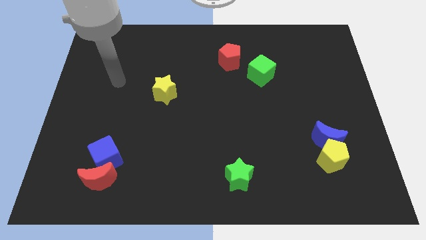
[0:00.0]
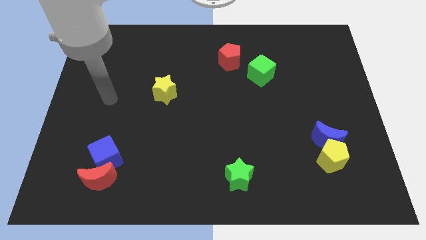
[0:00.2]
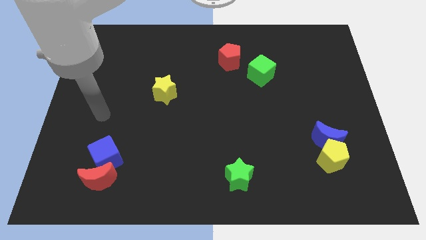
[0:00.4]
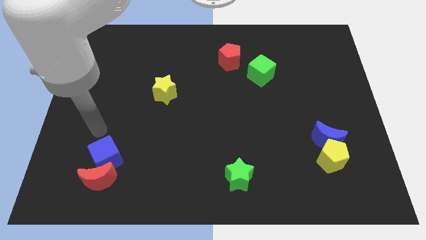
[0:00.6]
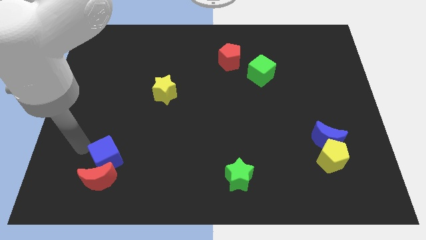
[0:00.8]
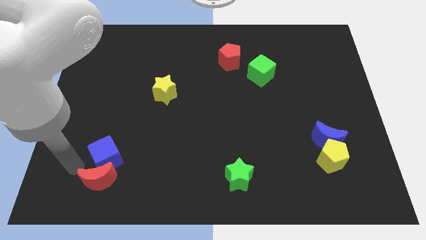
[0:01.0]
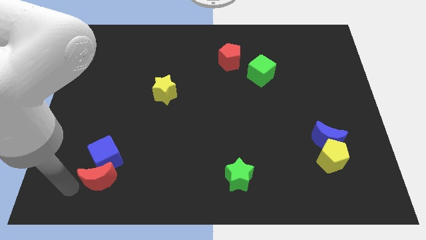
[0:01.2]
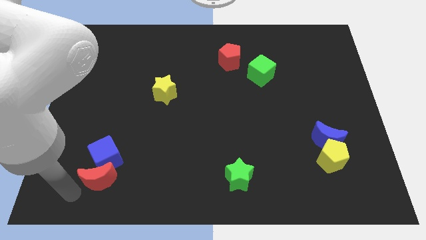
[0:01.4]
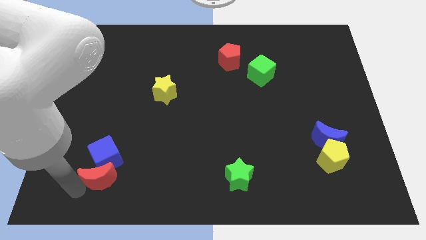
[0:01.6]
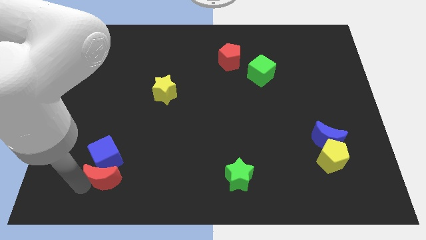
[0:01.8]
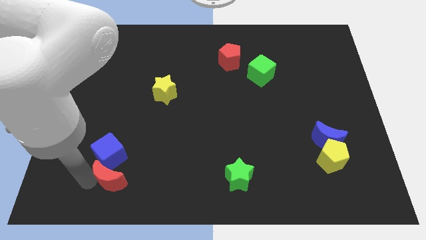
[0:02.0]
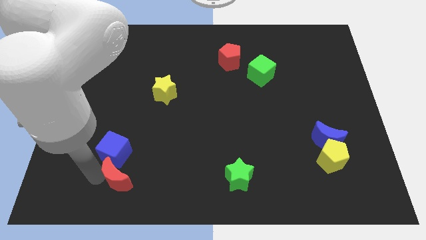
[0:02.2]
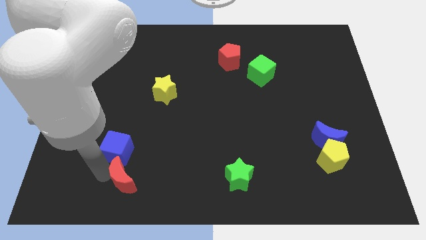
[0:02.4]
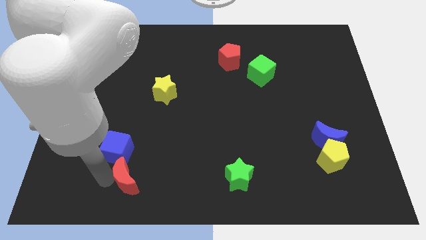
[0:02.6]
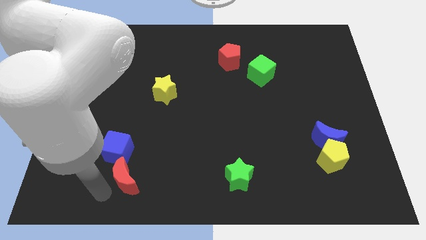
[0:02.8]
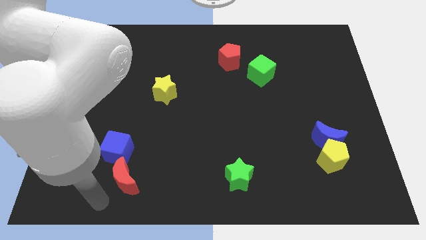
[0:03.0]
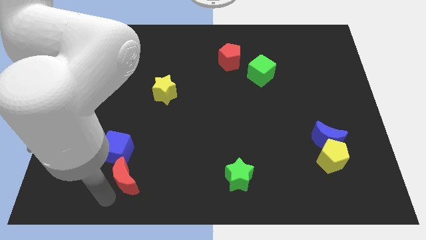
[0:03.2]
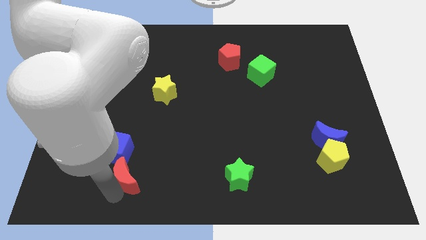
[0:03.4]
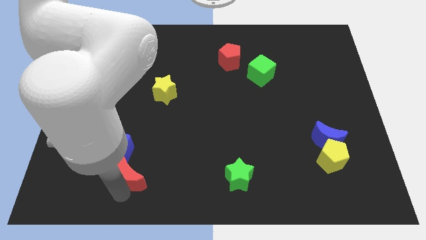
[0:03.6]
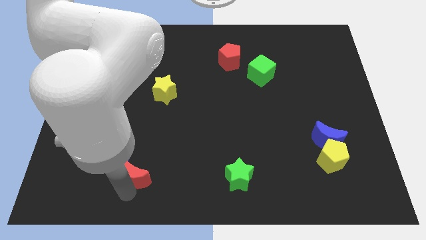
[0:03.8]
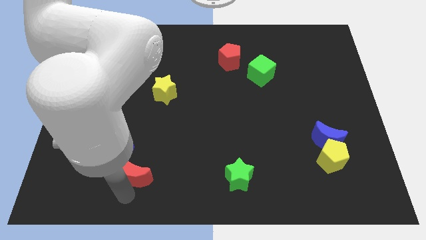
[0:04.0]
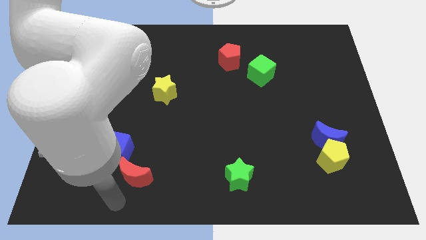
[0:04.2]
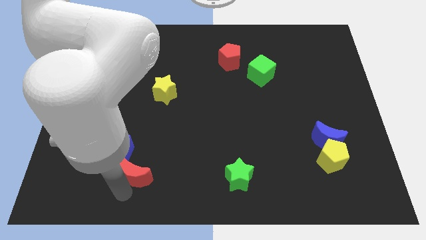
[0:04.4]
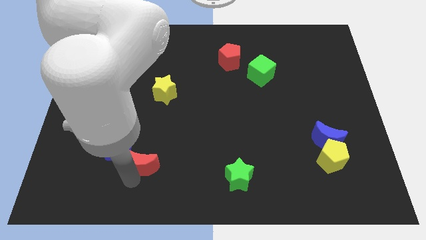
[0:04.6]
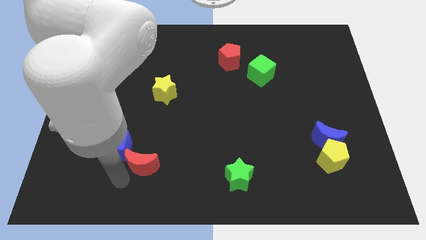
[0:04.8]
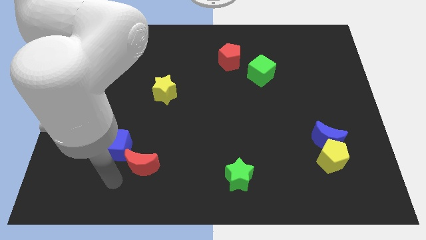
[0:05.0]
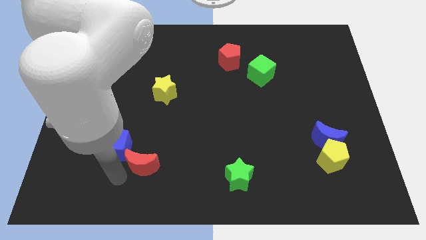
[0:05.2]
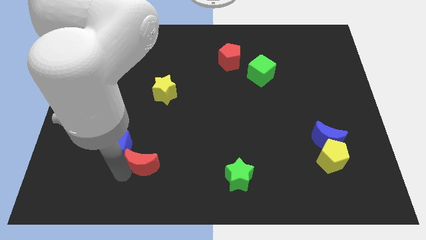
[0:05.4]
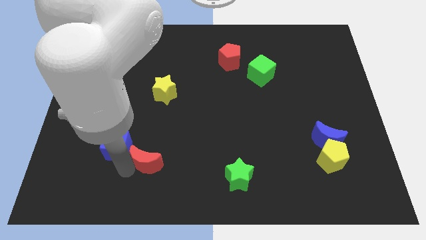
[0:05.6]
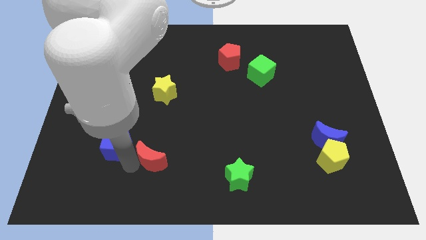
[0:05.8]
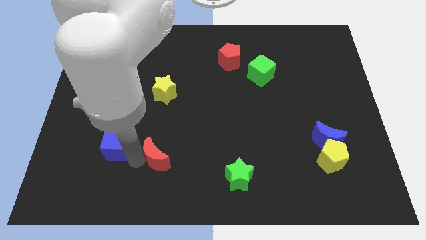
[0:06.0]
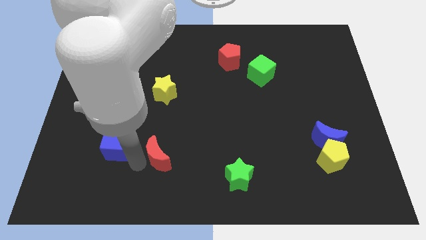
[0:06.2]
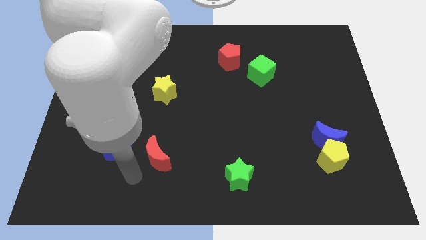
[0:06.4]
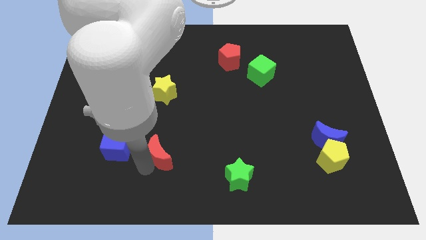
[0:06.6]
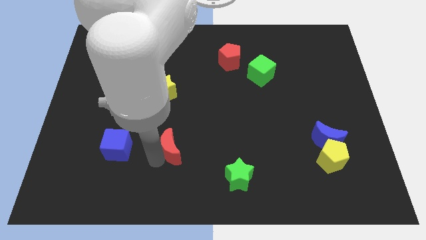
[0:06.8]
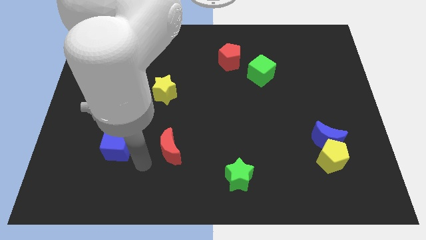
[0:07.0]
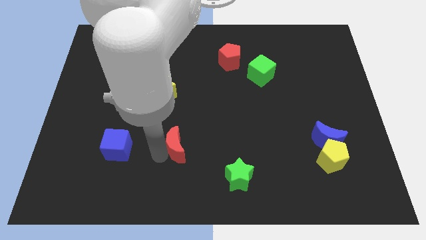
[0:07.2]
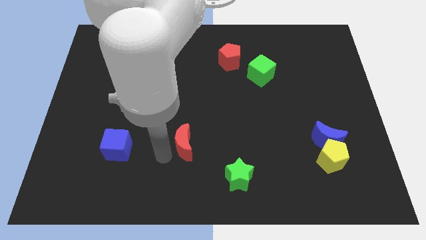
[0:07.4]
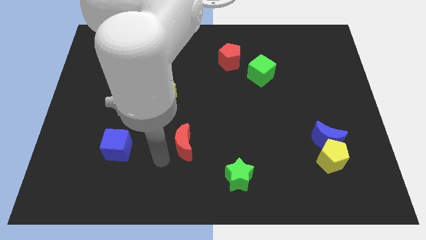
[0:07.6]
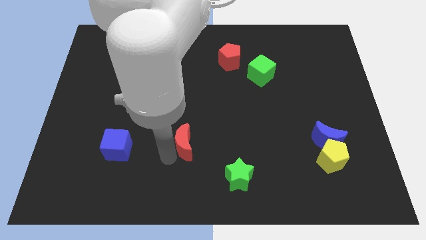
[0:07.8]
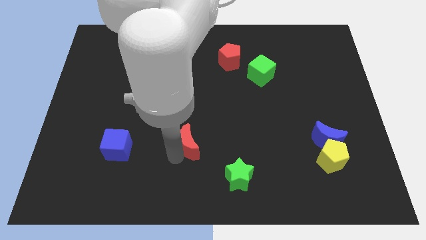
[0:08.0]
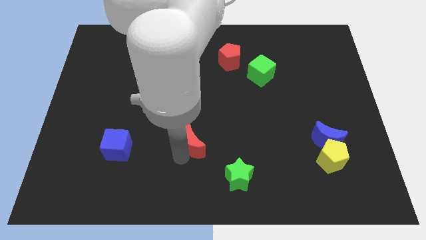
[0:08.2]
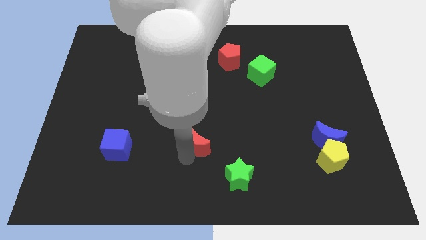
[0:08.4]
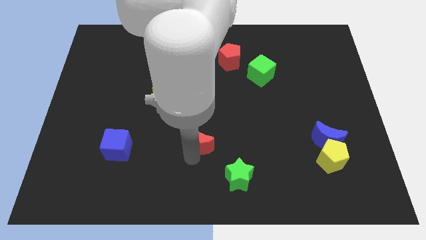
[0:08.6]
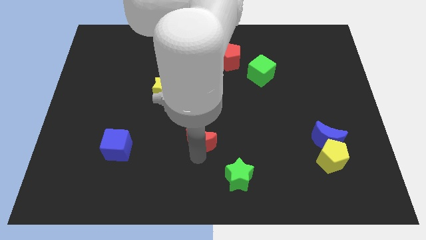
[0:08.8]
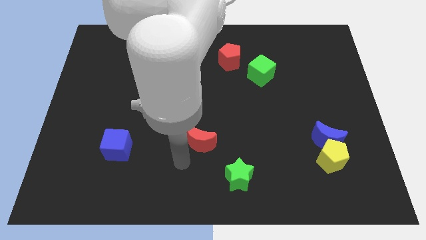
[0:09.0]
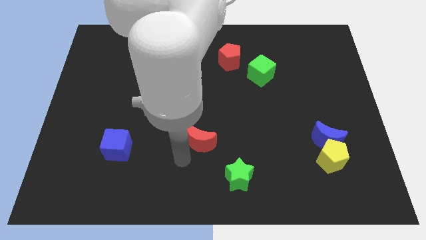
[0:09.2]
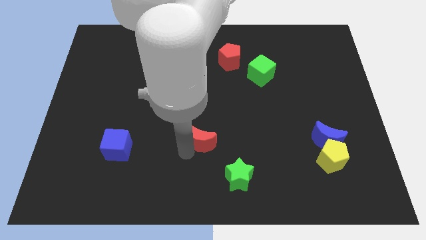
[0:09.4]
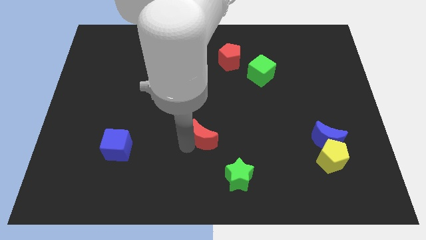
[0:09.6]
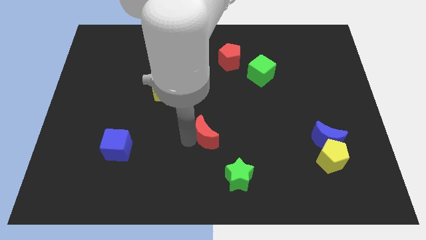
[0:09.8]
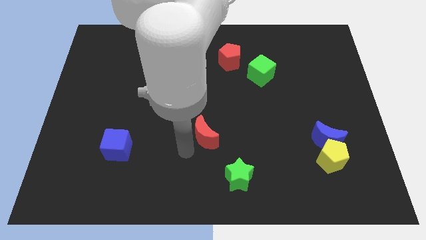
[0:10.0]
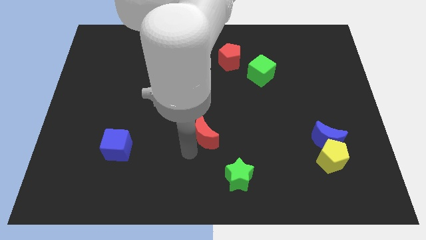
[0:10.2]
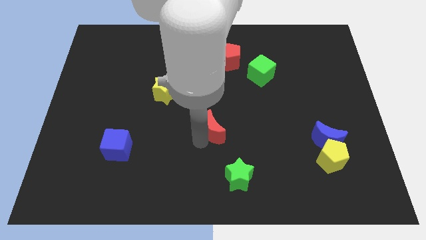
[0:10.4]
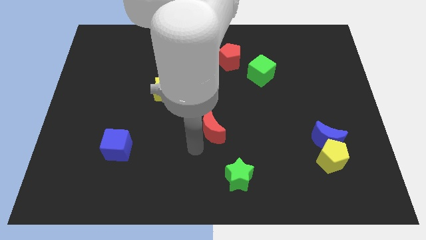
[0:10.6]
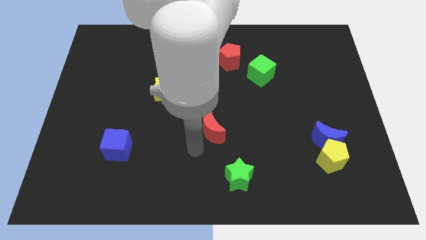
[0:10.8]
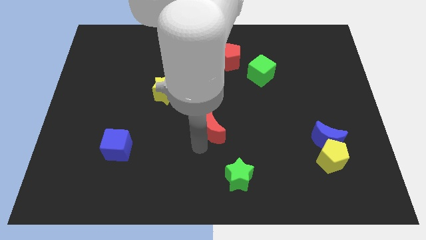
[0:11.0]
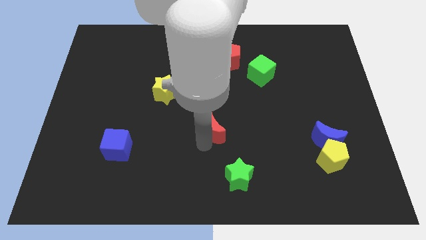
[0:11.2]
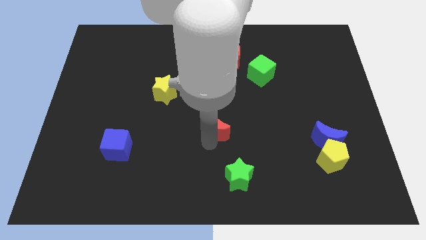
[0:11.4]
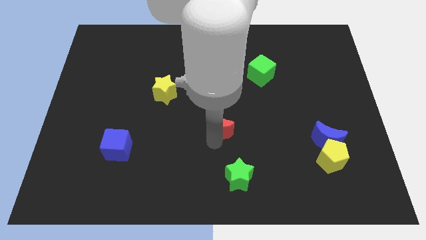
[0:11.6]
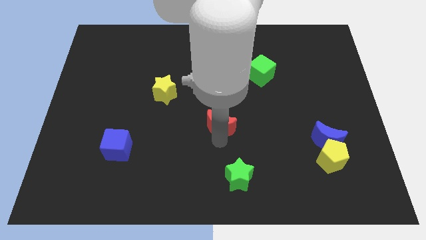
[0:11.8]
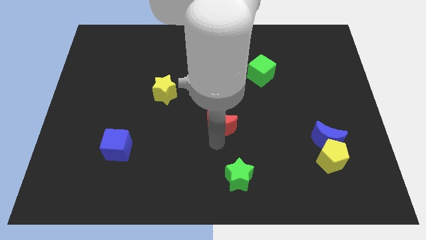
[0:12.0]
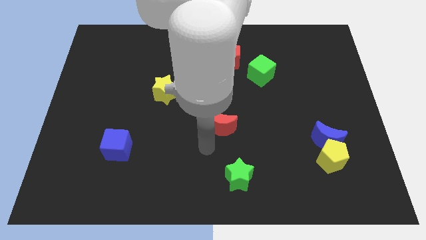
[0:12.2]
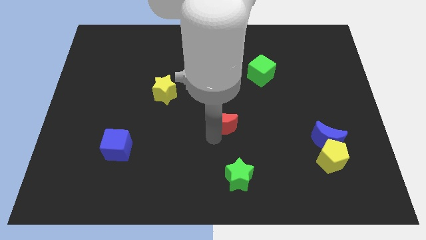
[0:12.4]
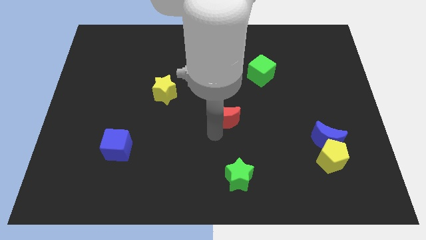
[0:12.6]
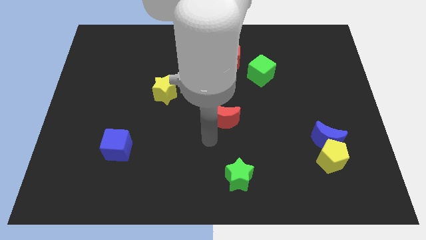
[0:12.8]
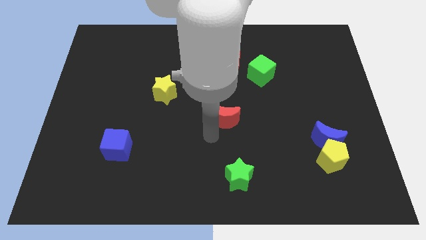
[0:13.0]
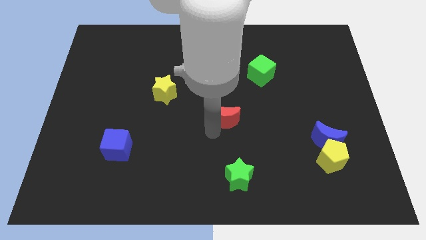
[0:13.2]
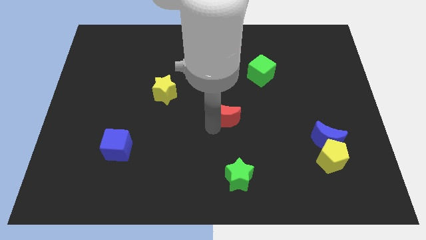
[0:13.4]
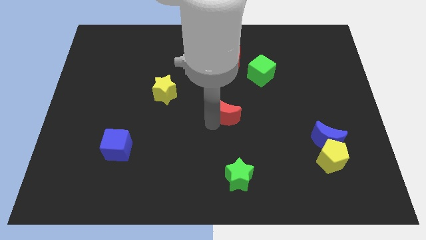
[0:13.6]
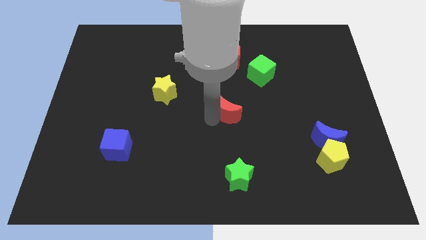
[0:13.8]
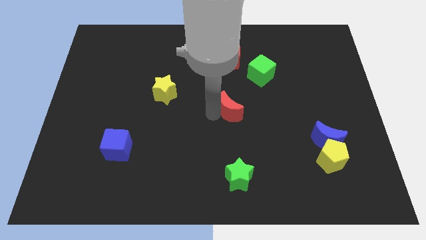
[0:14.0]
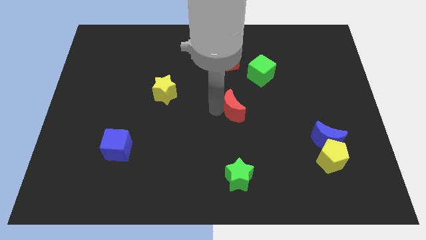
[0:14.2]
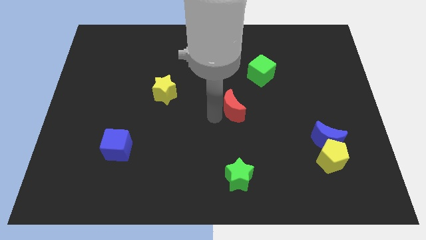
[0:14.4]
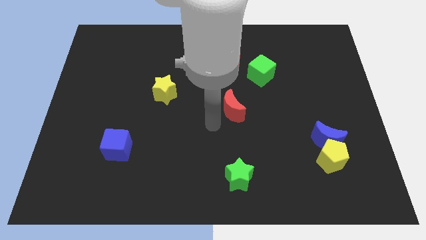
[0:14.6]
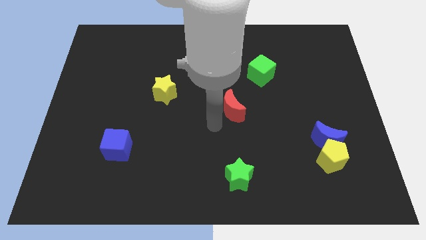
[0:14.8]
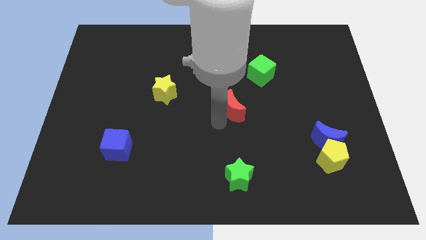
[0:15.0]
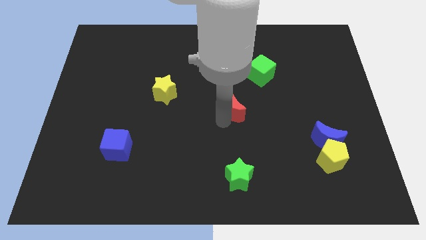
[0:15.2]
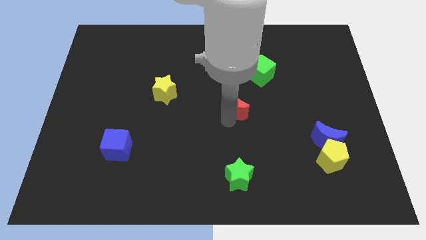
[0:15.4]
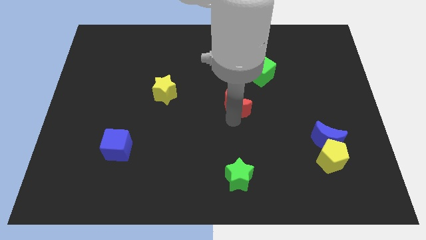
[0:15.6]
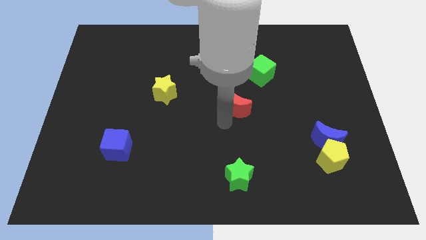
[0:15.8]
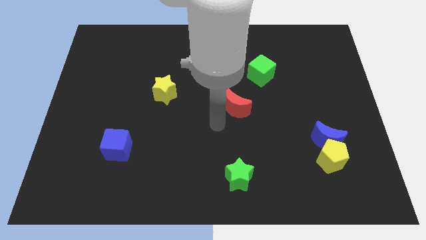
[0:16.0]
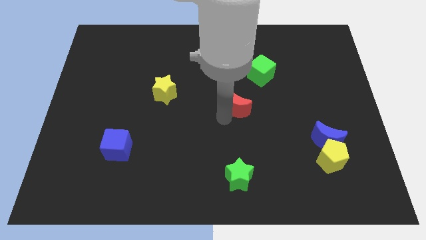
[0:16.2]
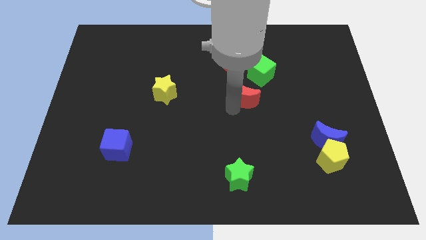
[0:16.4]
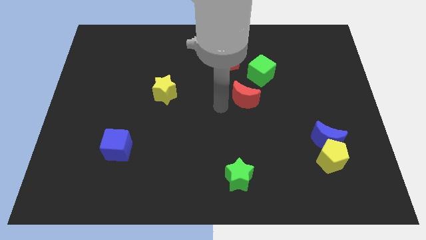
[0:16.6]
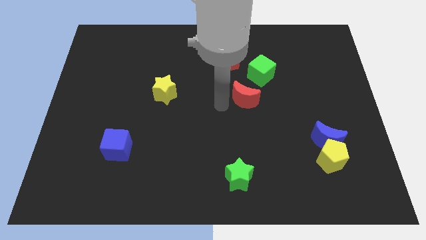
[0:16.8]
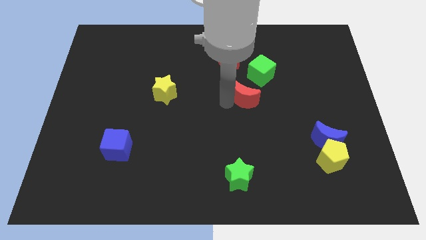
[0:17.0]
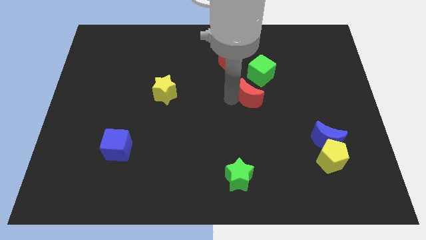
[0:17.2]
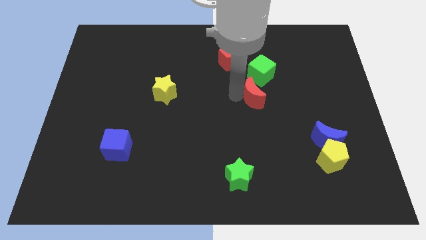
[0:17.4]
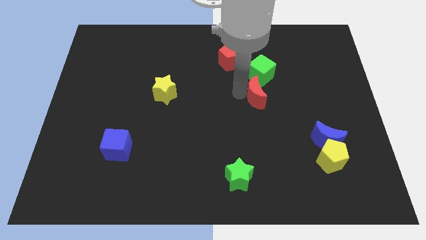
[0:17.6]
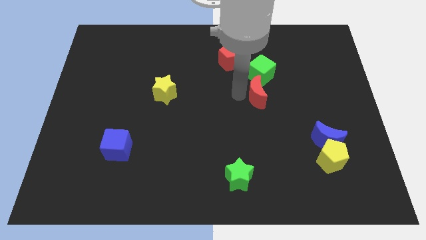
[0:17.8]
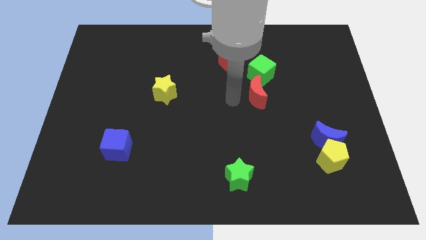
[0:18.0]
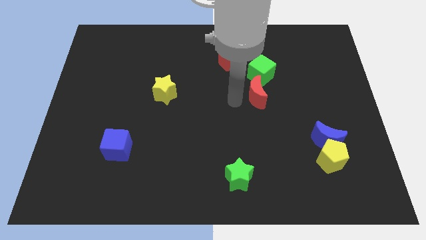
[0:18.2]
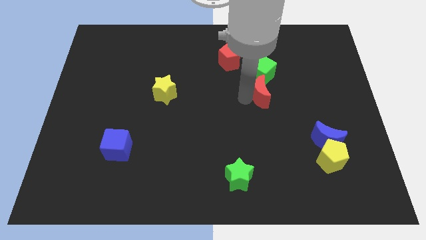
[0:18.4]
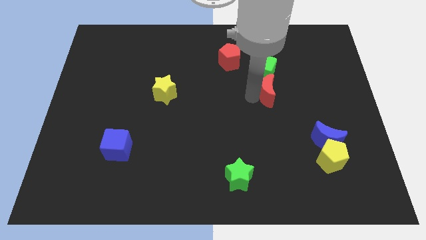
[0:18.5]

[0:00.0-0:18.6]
slide the red moon to the bottom right of the green cube
